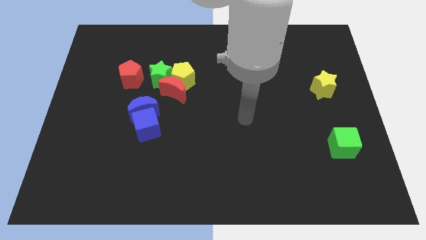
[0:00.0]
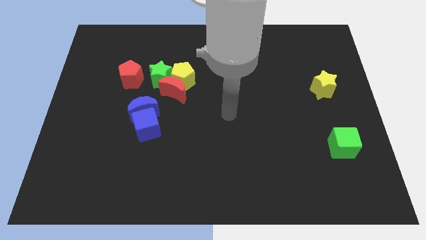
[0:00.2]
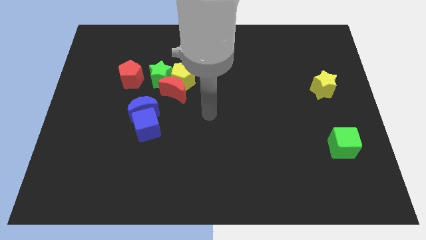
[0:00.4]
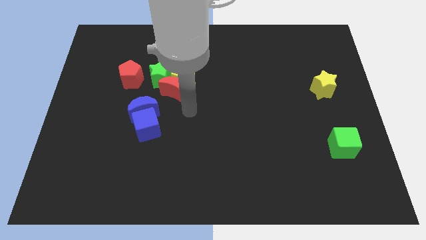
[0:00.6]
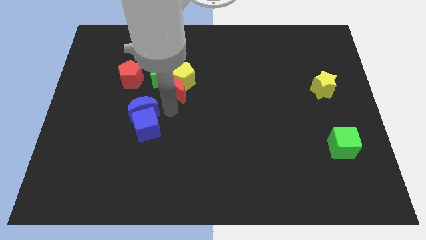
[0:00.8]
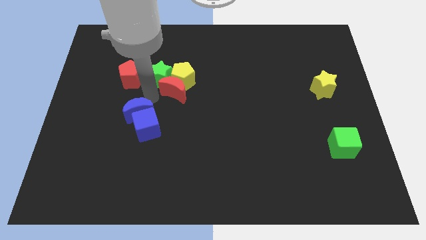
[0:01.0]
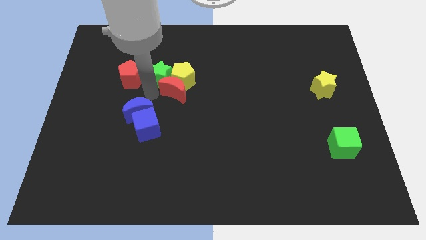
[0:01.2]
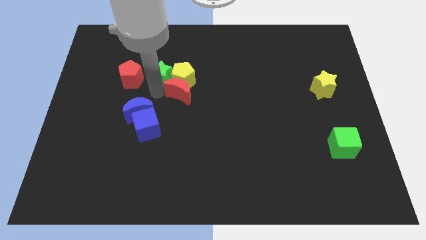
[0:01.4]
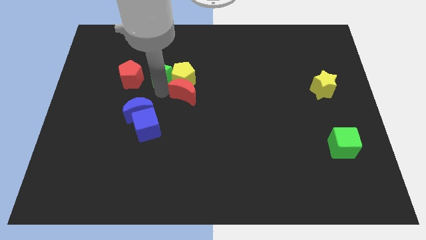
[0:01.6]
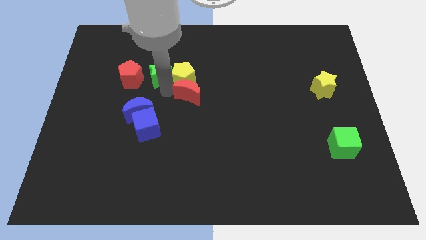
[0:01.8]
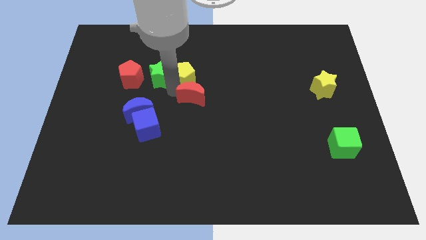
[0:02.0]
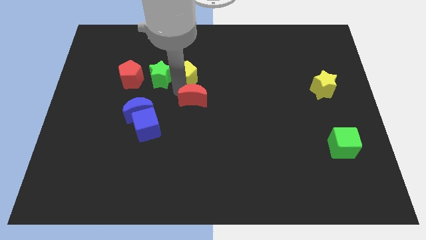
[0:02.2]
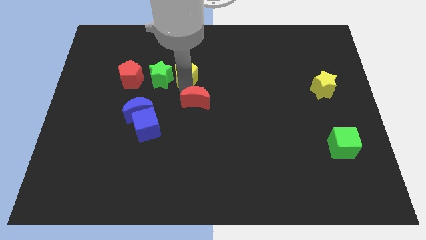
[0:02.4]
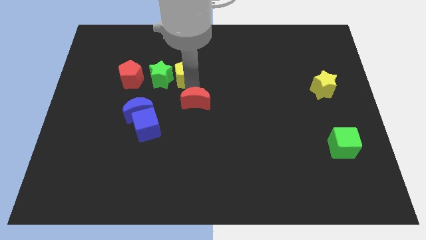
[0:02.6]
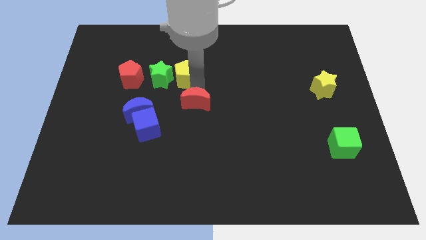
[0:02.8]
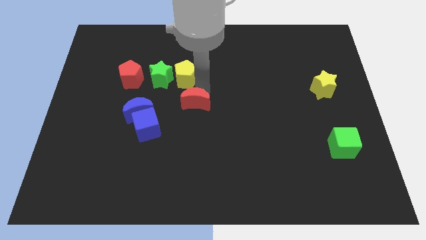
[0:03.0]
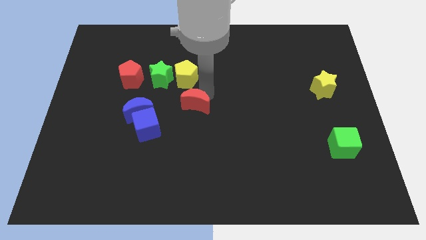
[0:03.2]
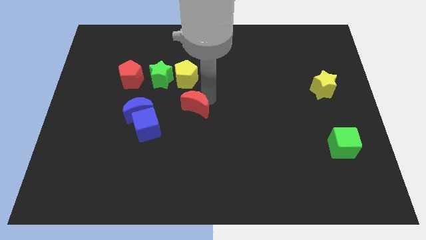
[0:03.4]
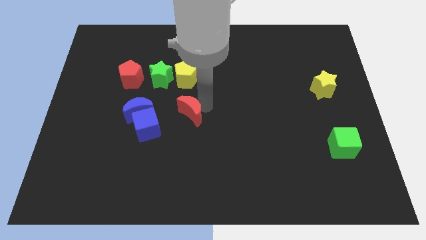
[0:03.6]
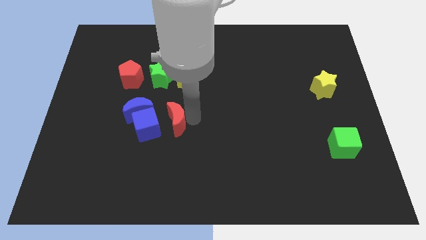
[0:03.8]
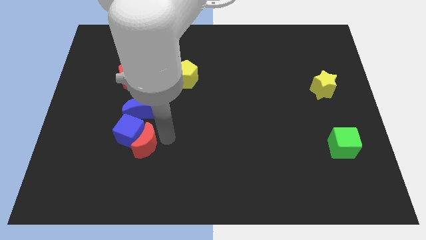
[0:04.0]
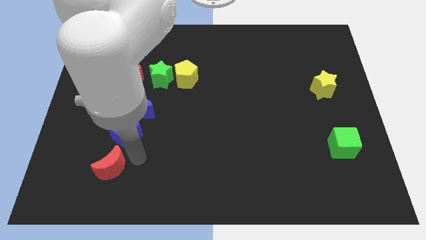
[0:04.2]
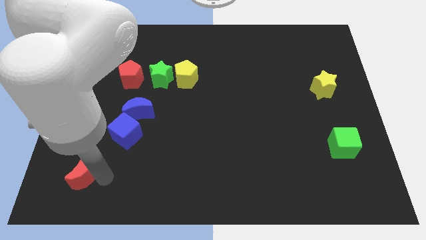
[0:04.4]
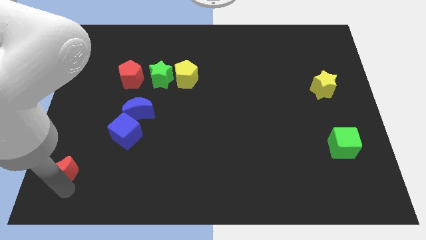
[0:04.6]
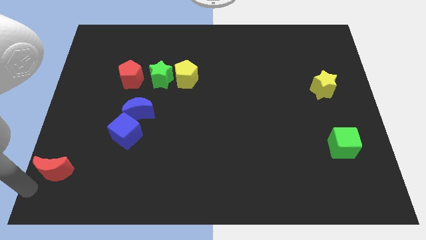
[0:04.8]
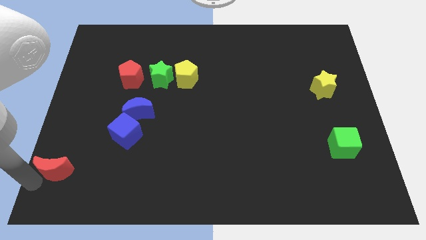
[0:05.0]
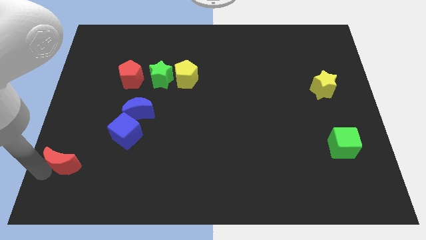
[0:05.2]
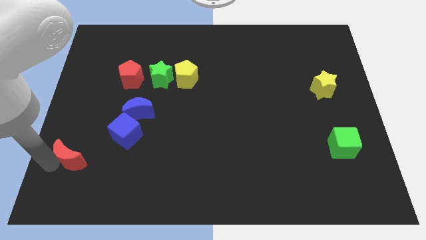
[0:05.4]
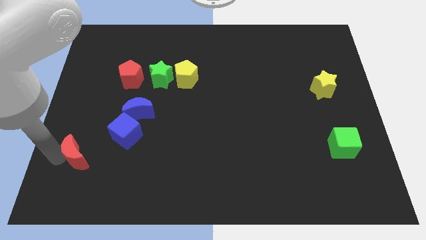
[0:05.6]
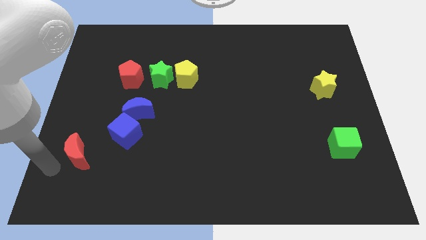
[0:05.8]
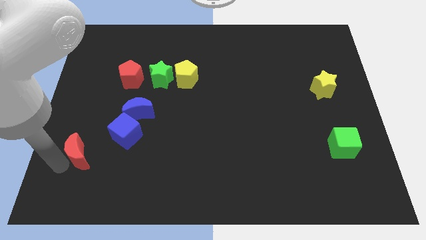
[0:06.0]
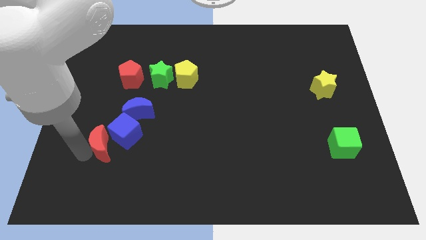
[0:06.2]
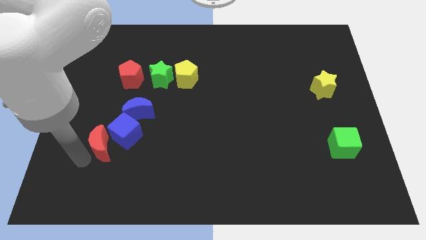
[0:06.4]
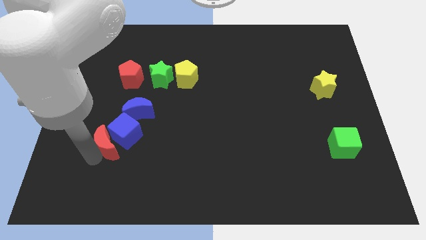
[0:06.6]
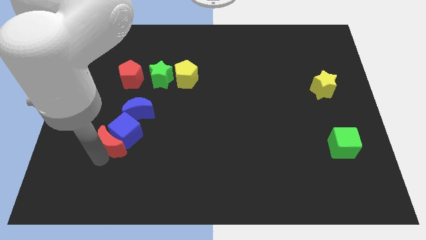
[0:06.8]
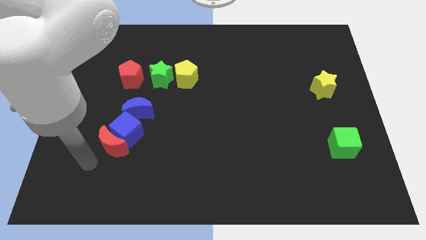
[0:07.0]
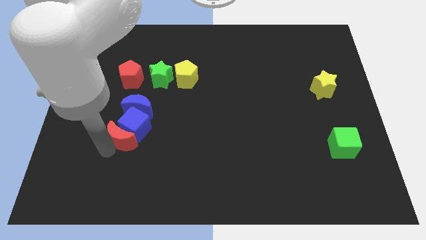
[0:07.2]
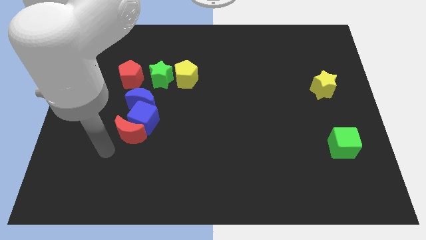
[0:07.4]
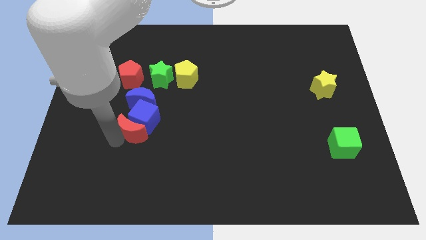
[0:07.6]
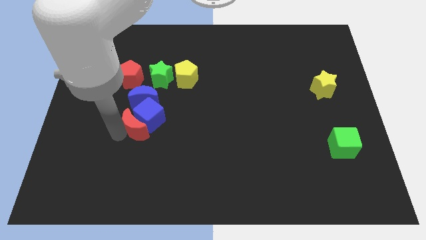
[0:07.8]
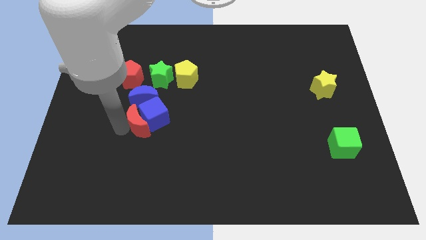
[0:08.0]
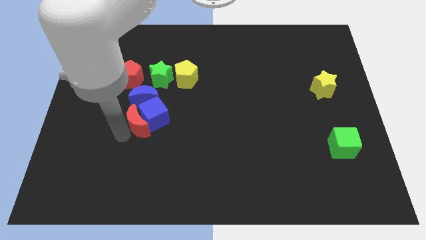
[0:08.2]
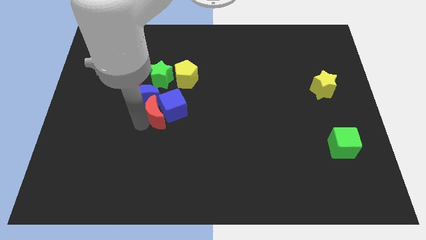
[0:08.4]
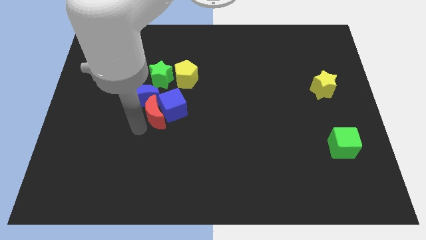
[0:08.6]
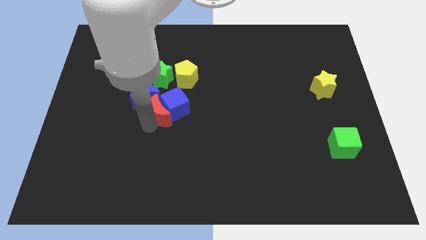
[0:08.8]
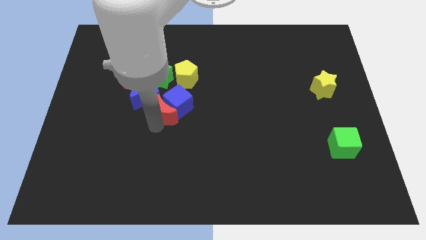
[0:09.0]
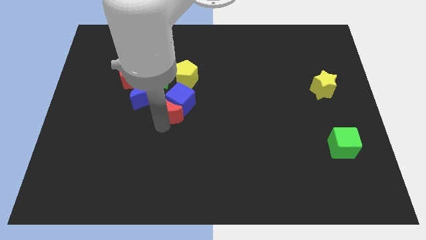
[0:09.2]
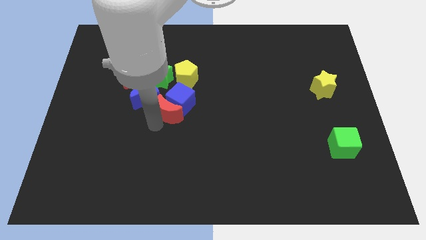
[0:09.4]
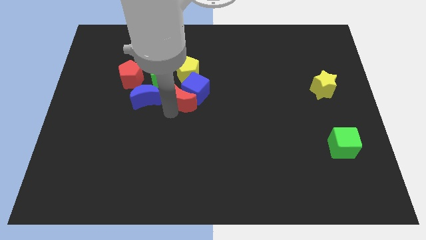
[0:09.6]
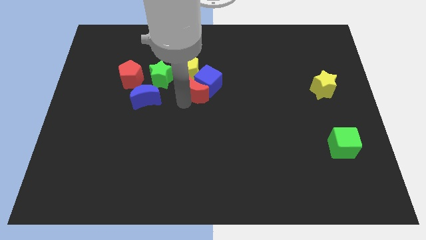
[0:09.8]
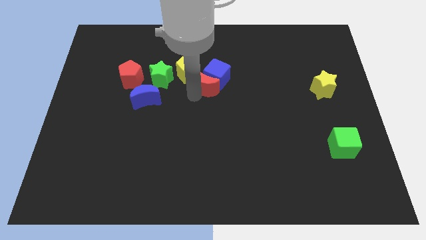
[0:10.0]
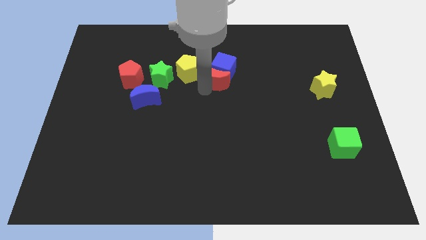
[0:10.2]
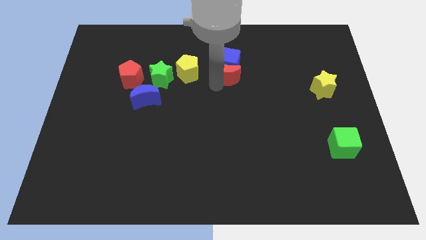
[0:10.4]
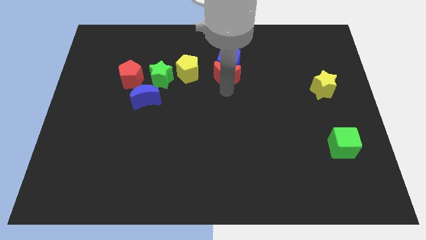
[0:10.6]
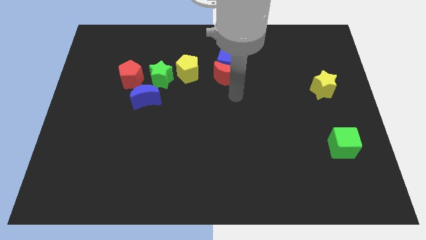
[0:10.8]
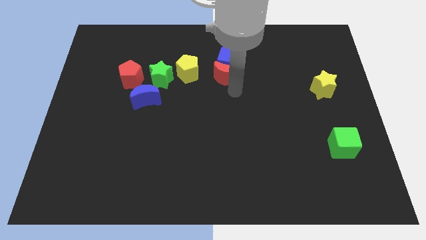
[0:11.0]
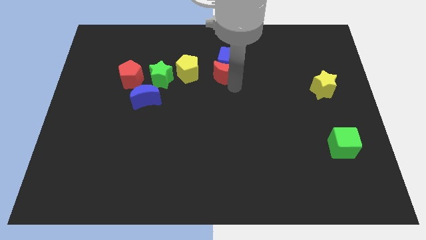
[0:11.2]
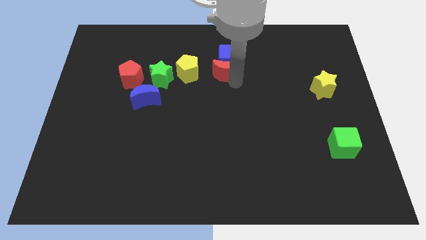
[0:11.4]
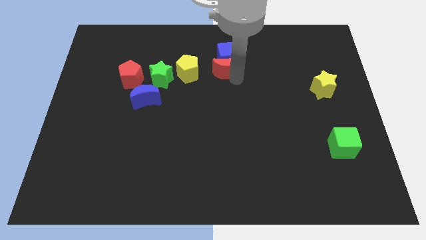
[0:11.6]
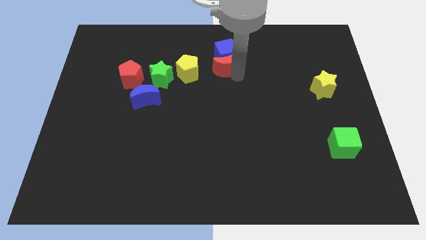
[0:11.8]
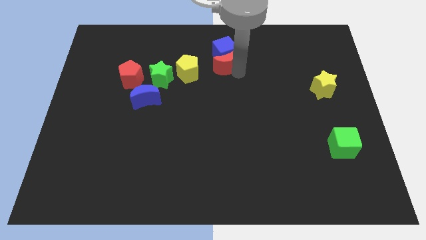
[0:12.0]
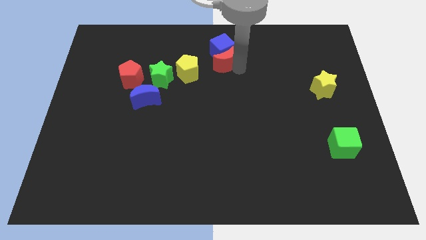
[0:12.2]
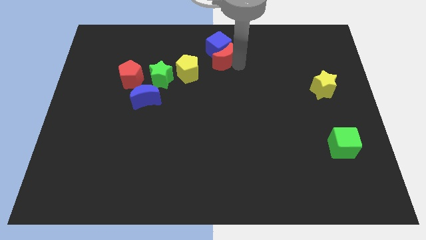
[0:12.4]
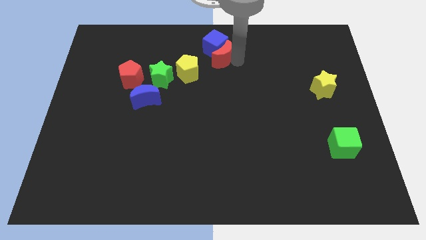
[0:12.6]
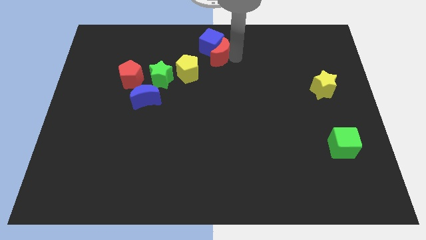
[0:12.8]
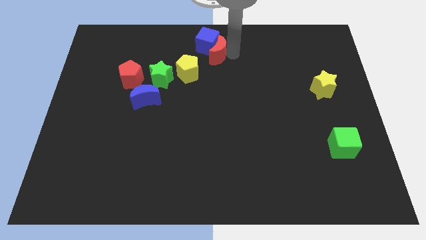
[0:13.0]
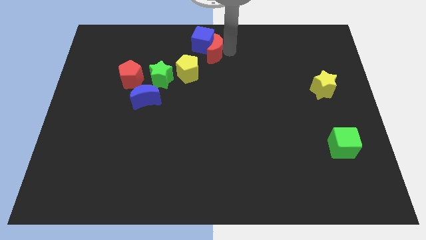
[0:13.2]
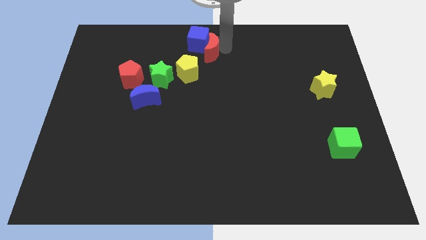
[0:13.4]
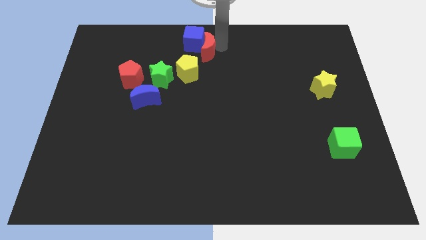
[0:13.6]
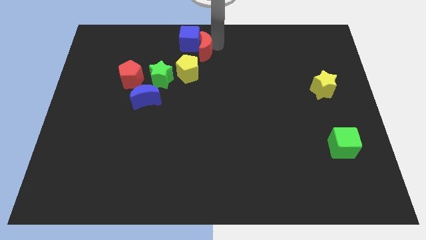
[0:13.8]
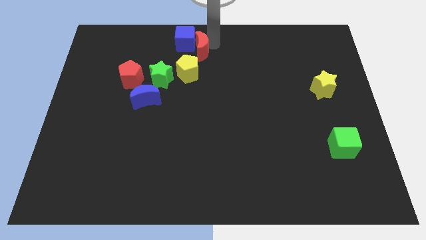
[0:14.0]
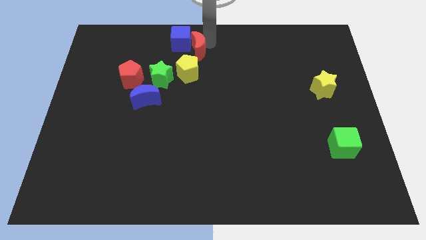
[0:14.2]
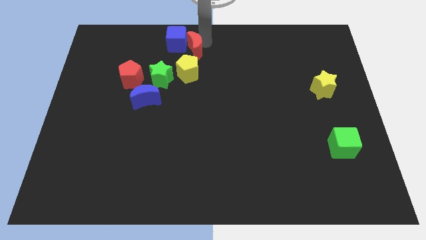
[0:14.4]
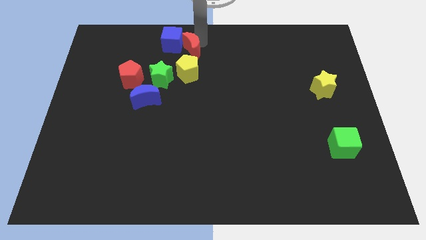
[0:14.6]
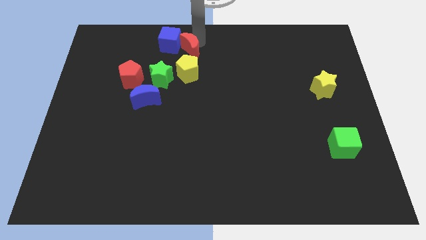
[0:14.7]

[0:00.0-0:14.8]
slide the red moon diagonally up and to the right of the green star

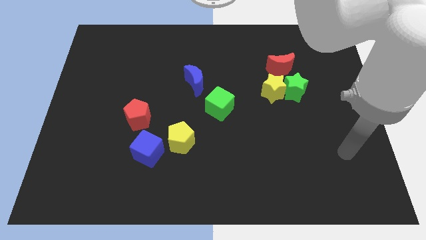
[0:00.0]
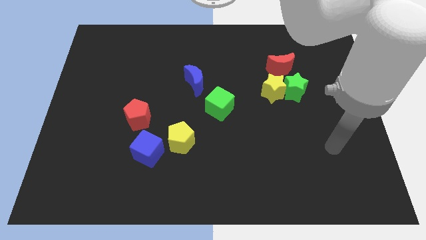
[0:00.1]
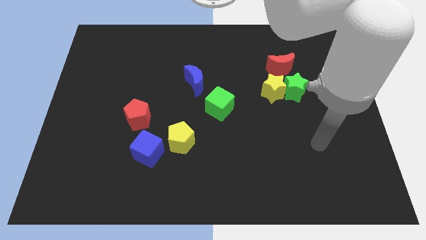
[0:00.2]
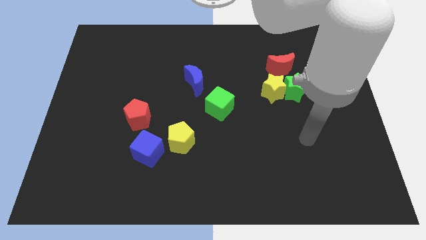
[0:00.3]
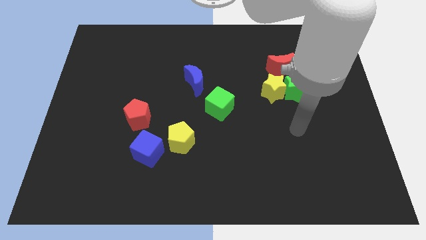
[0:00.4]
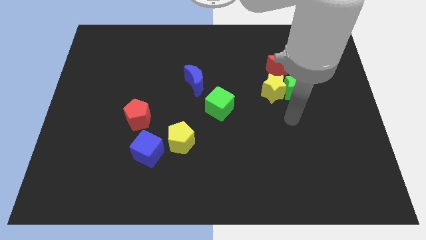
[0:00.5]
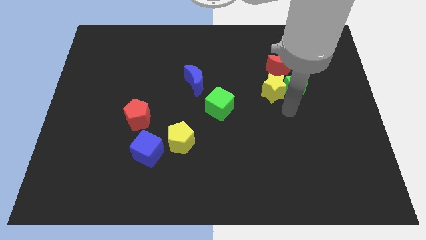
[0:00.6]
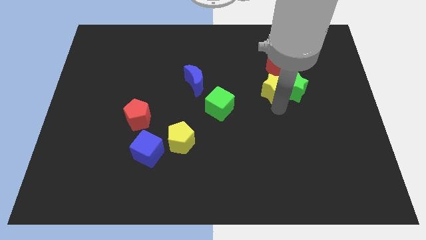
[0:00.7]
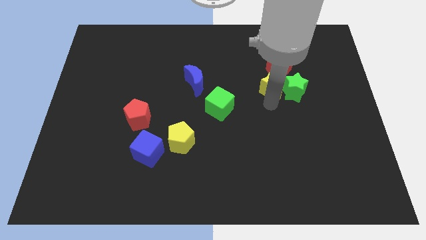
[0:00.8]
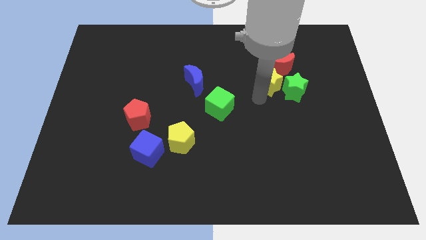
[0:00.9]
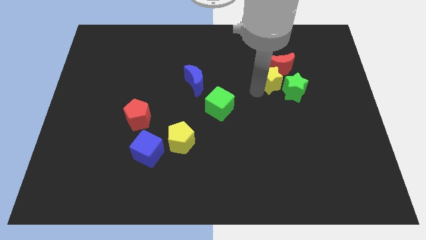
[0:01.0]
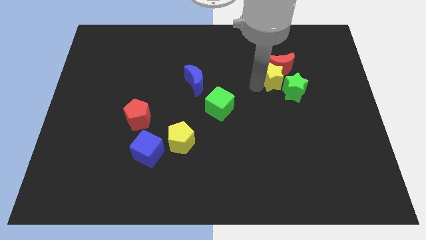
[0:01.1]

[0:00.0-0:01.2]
put the red moon just right of the yellow star
